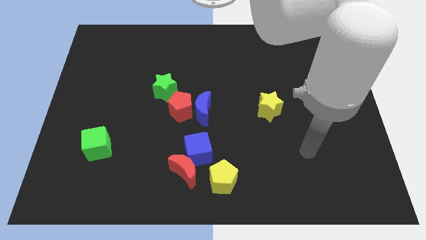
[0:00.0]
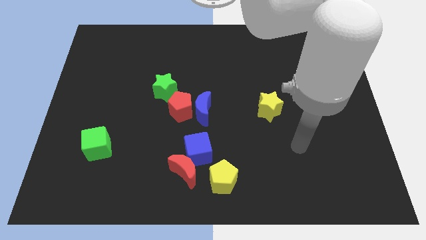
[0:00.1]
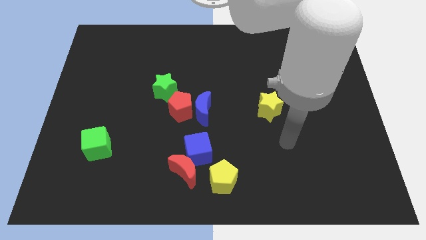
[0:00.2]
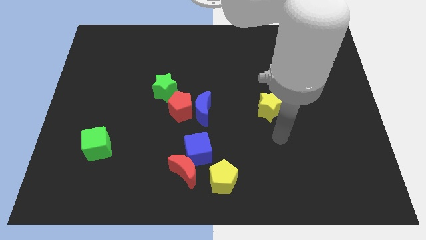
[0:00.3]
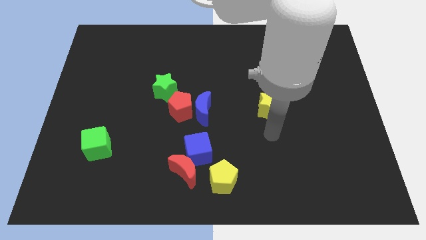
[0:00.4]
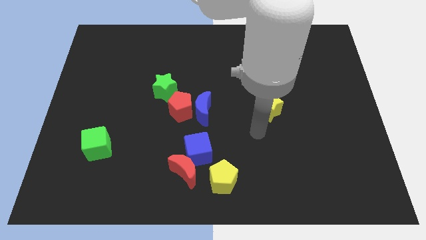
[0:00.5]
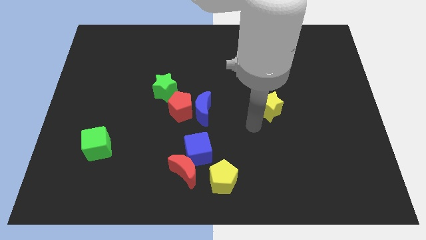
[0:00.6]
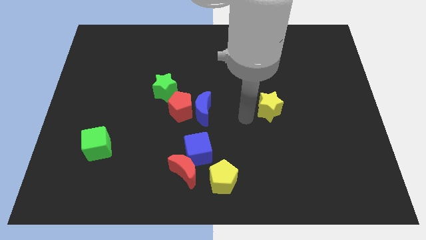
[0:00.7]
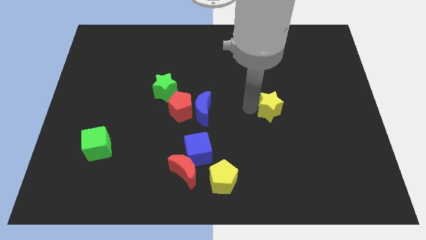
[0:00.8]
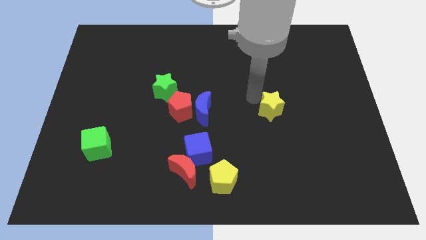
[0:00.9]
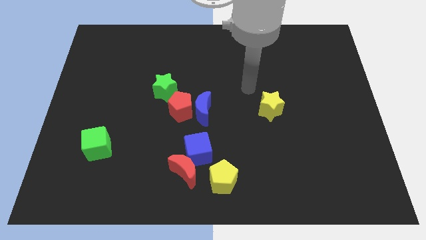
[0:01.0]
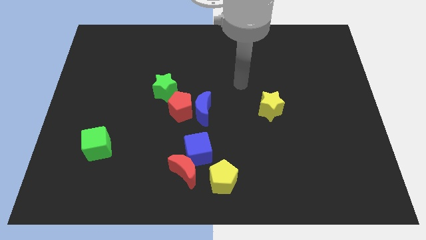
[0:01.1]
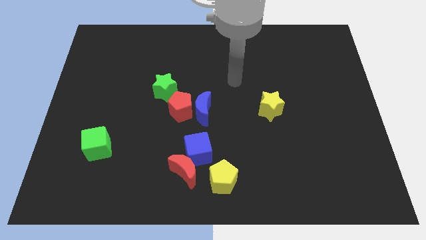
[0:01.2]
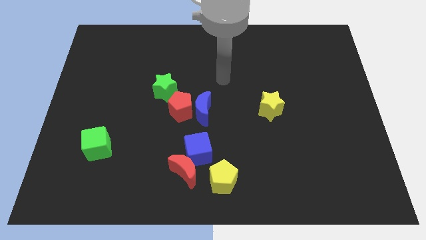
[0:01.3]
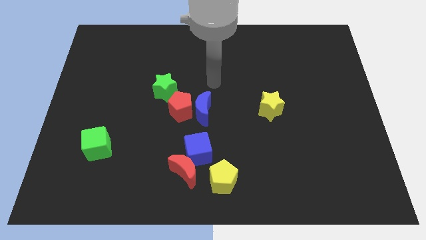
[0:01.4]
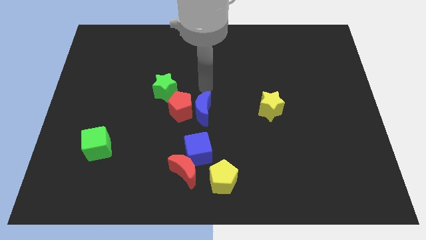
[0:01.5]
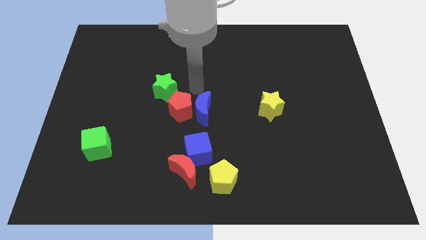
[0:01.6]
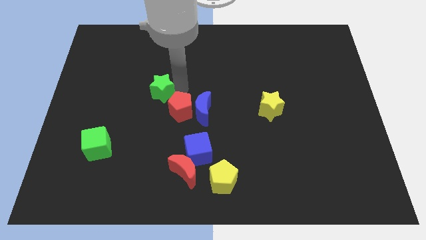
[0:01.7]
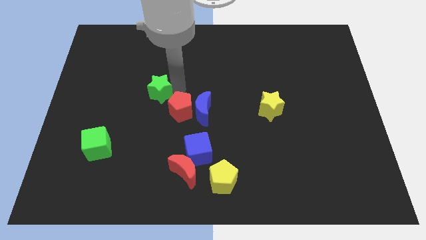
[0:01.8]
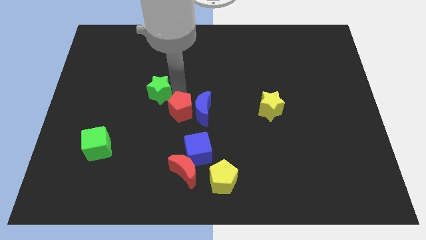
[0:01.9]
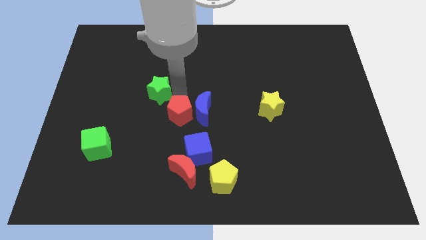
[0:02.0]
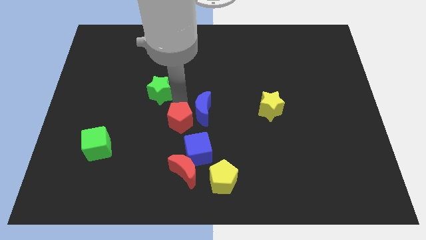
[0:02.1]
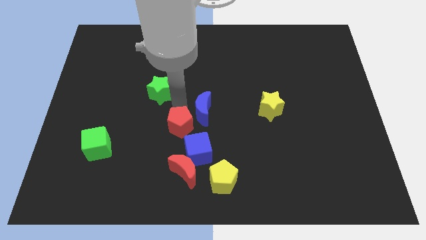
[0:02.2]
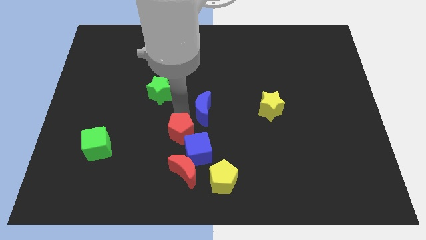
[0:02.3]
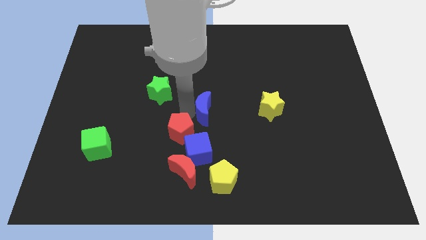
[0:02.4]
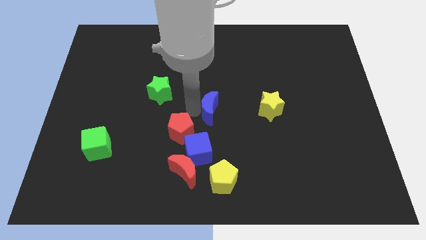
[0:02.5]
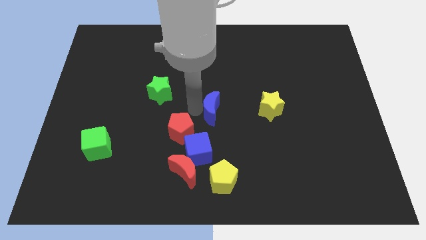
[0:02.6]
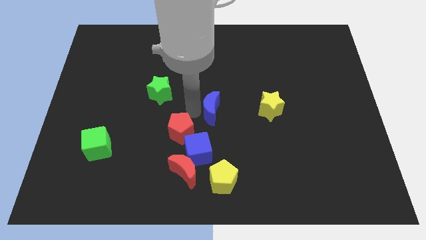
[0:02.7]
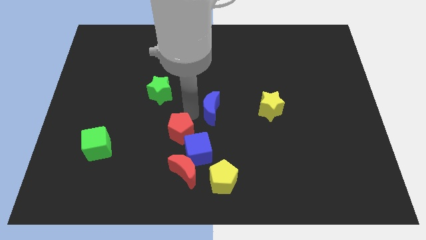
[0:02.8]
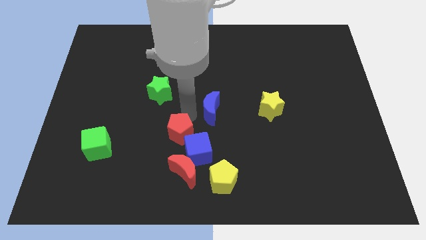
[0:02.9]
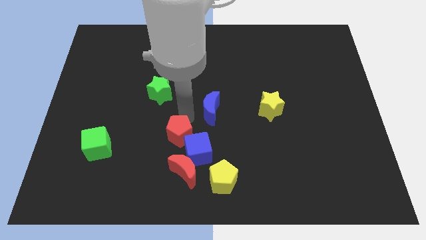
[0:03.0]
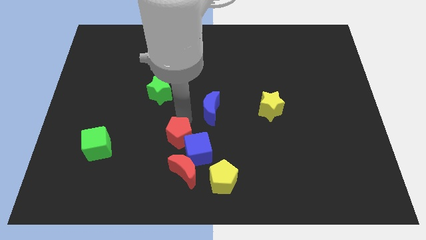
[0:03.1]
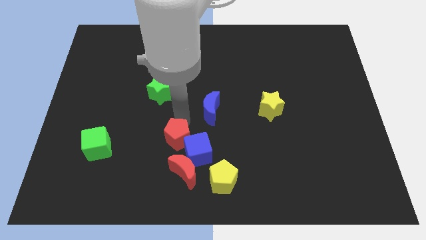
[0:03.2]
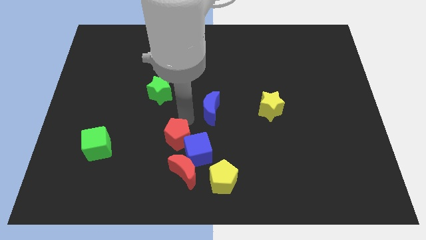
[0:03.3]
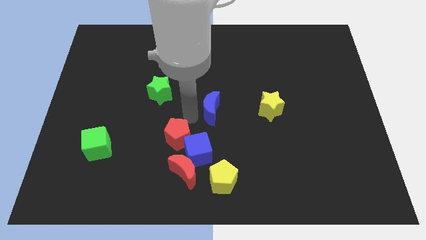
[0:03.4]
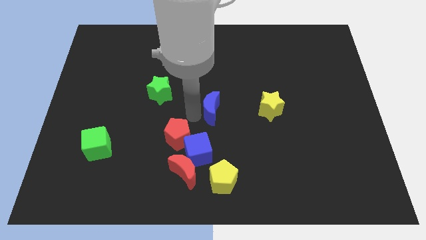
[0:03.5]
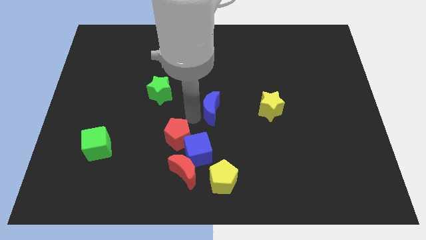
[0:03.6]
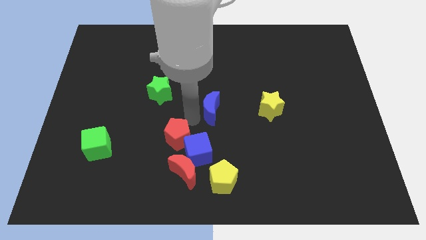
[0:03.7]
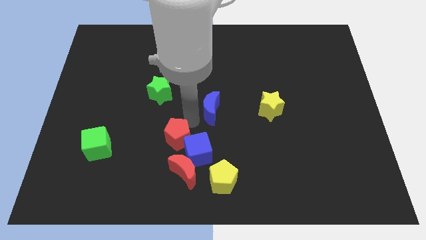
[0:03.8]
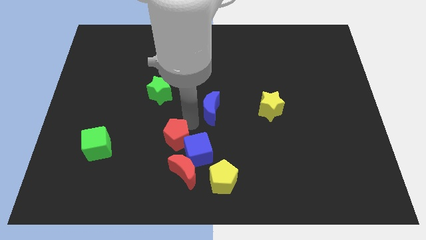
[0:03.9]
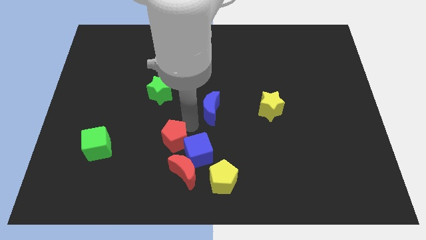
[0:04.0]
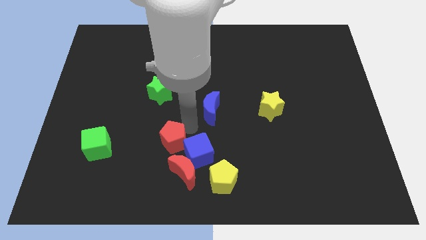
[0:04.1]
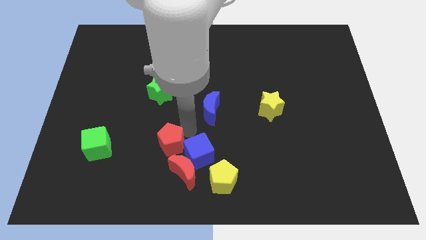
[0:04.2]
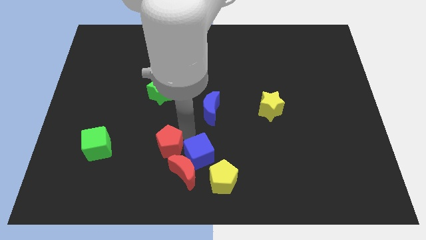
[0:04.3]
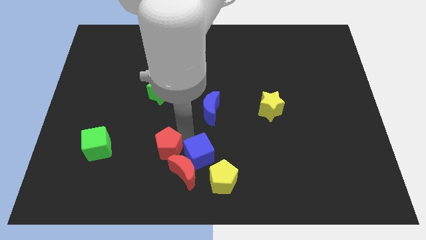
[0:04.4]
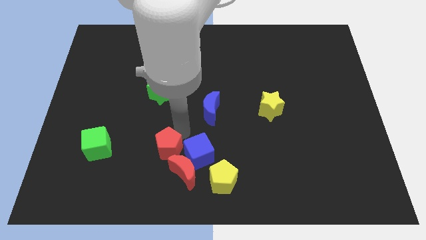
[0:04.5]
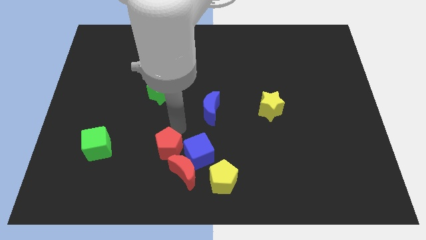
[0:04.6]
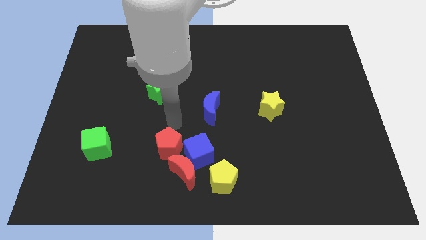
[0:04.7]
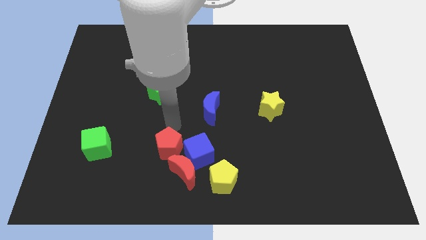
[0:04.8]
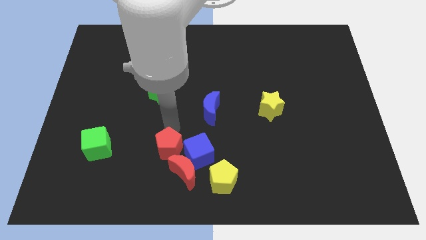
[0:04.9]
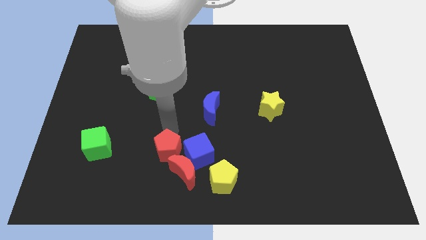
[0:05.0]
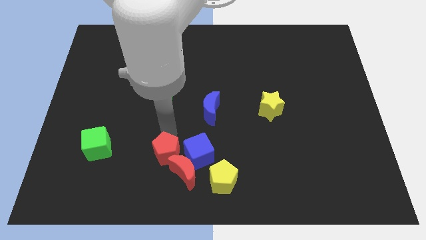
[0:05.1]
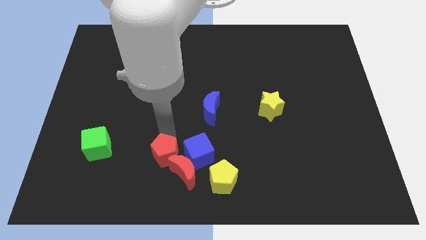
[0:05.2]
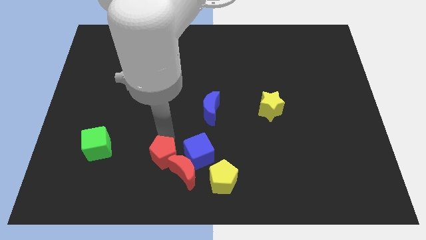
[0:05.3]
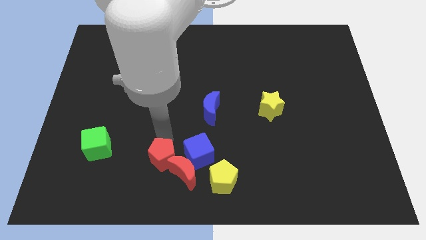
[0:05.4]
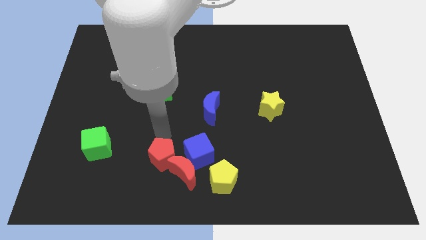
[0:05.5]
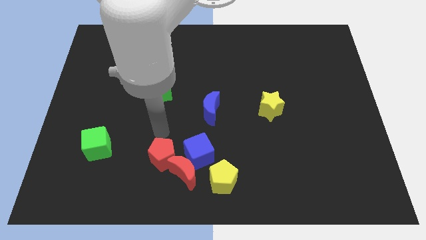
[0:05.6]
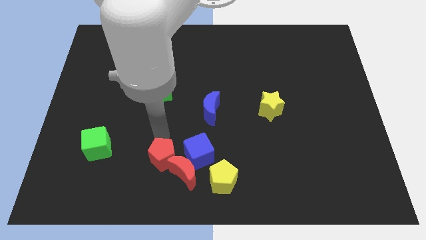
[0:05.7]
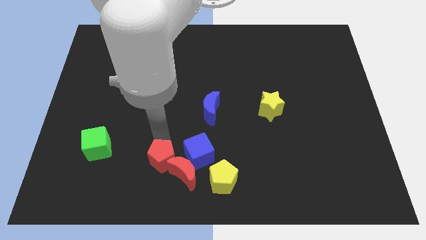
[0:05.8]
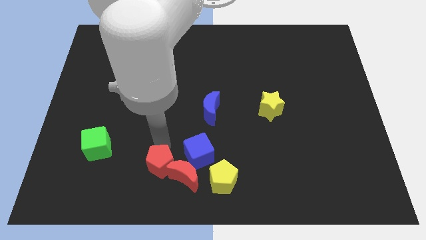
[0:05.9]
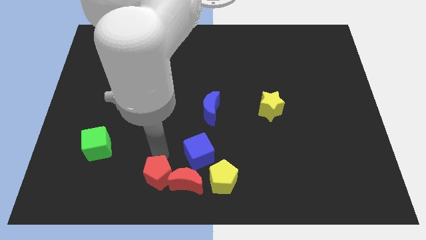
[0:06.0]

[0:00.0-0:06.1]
put the red pentagon to the bottom side
